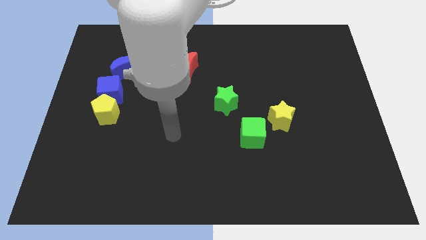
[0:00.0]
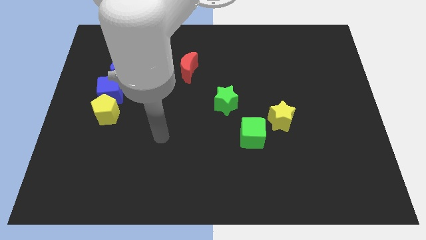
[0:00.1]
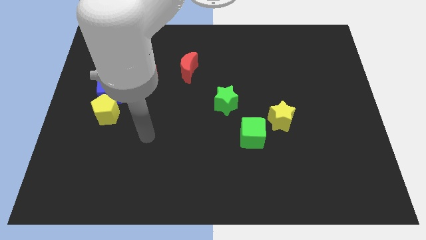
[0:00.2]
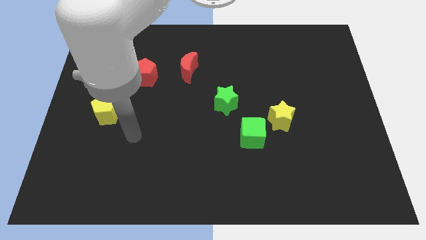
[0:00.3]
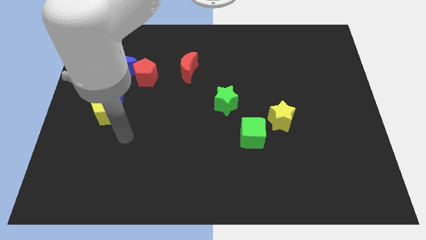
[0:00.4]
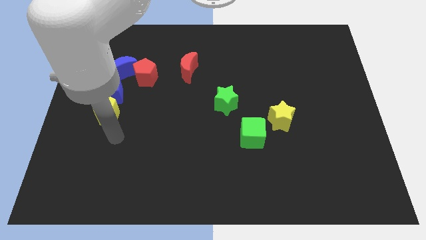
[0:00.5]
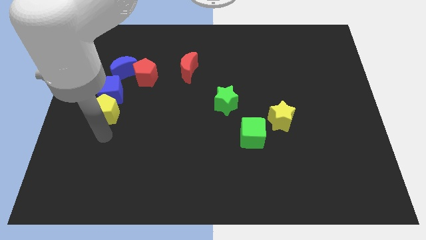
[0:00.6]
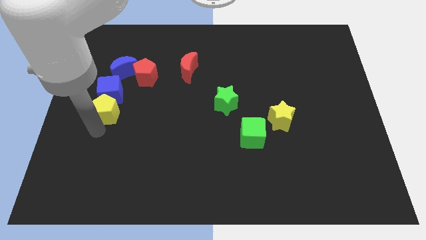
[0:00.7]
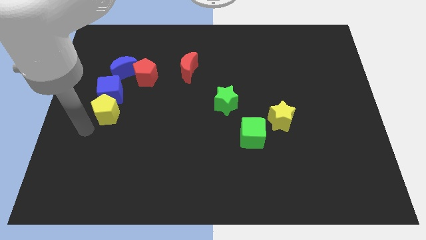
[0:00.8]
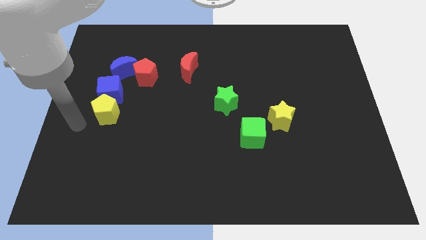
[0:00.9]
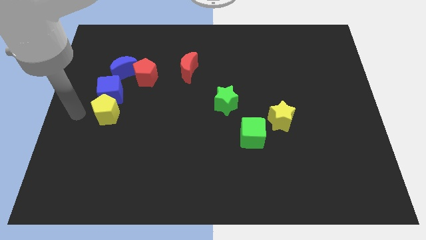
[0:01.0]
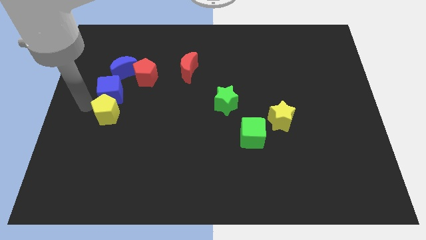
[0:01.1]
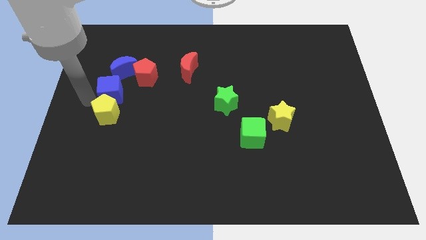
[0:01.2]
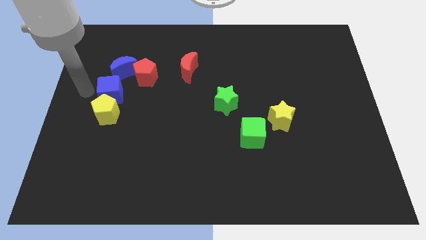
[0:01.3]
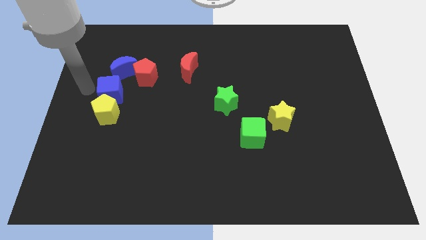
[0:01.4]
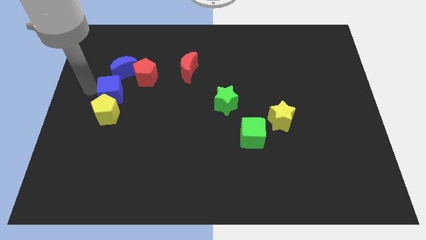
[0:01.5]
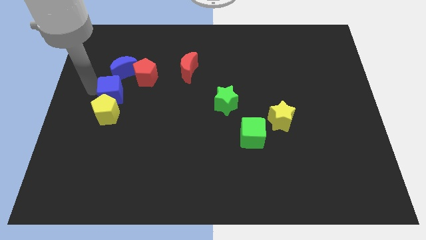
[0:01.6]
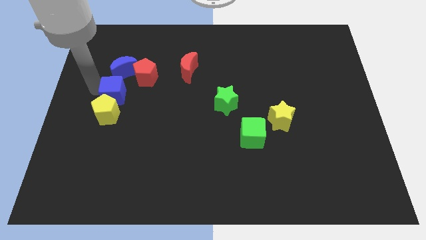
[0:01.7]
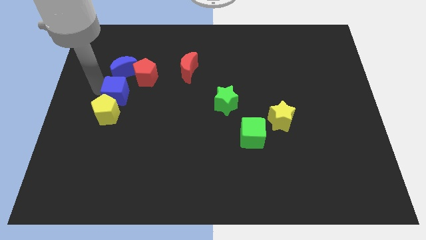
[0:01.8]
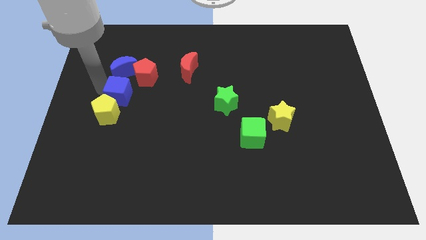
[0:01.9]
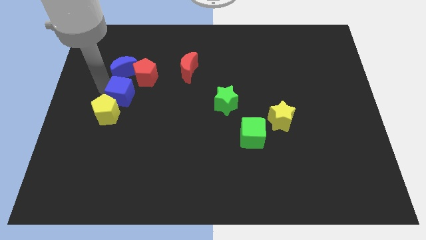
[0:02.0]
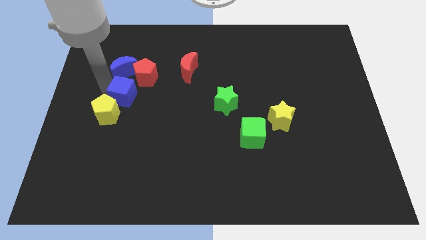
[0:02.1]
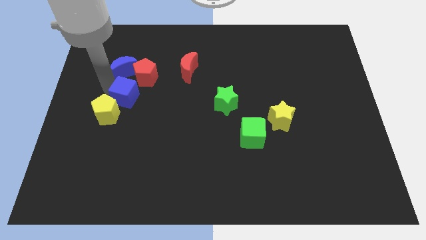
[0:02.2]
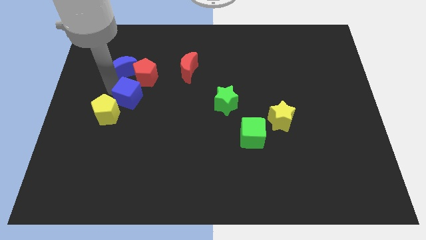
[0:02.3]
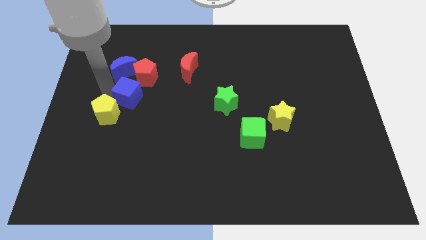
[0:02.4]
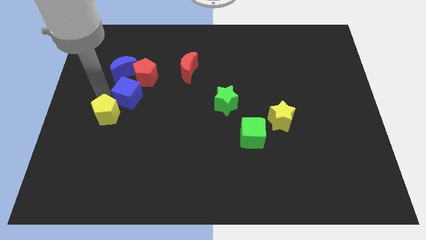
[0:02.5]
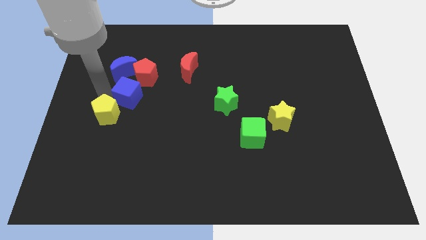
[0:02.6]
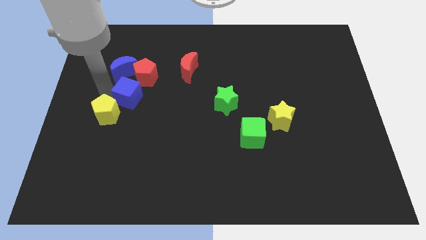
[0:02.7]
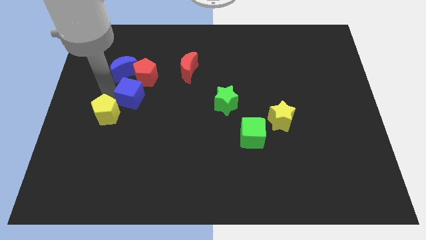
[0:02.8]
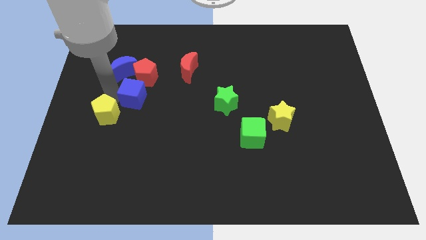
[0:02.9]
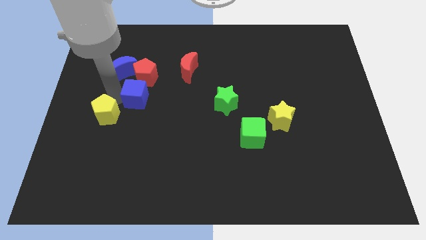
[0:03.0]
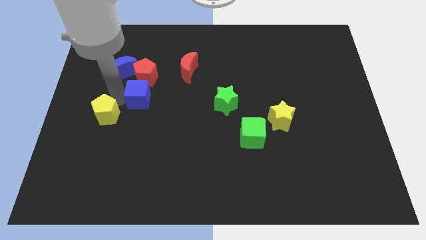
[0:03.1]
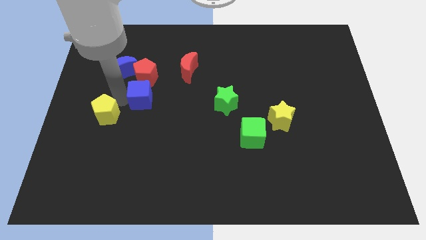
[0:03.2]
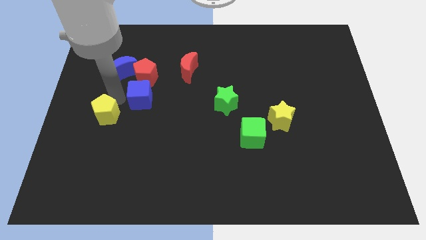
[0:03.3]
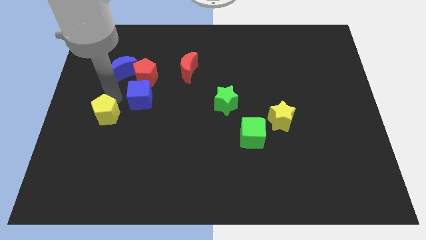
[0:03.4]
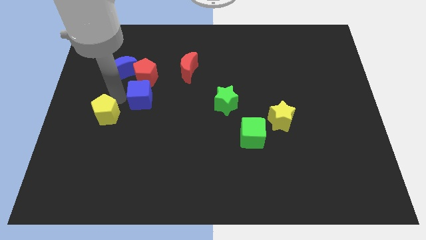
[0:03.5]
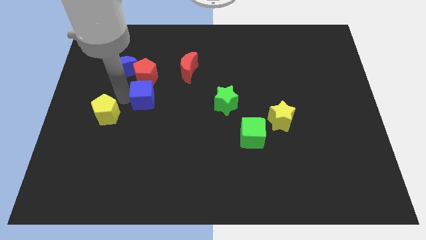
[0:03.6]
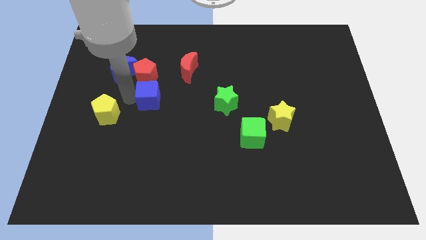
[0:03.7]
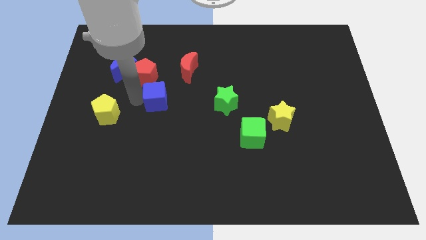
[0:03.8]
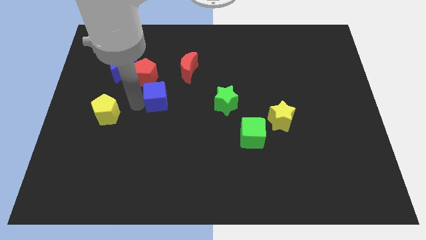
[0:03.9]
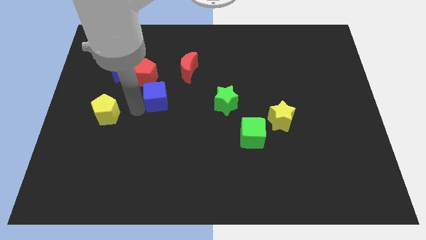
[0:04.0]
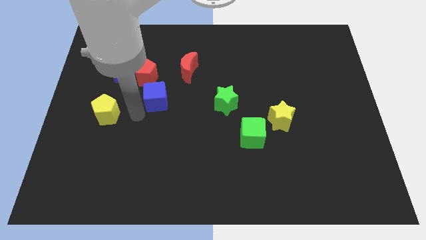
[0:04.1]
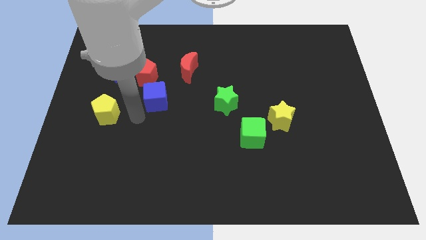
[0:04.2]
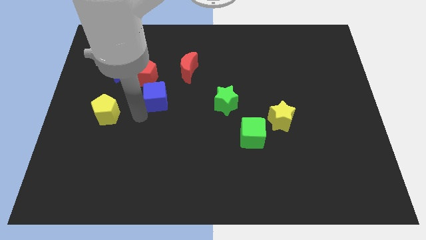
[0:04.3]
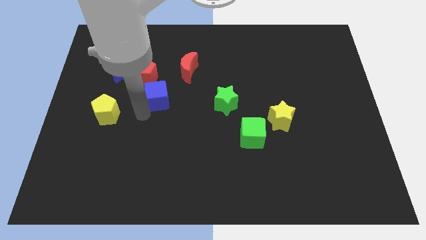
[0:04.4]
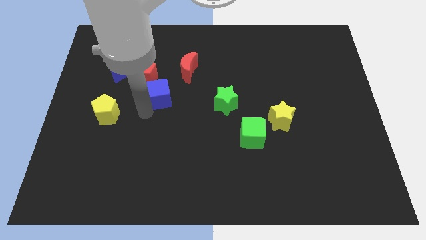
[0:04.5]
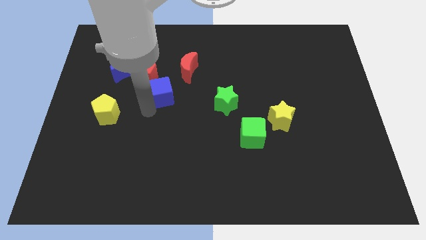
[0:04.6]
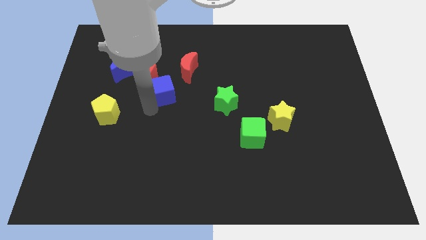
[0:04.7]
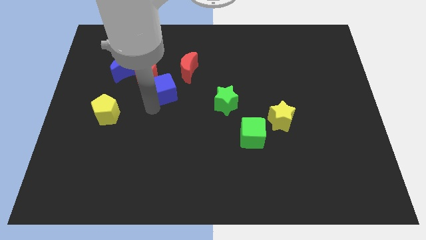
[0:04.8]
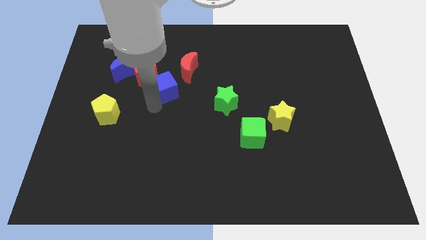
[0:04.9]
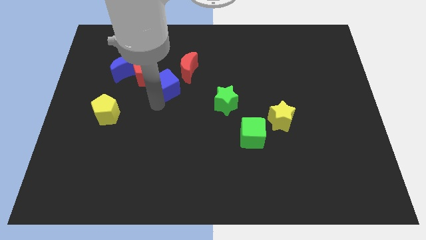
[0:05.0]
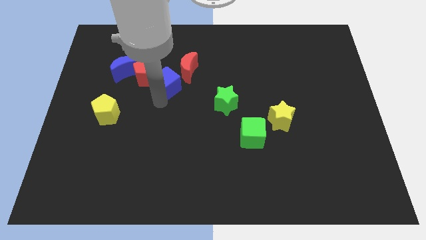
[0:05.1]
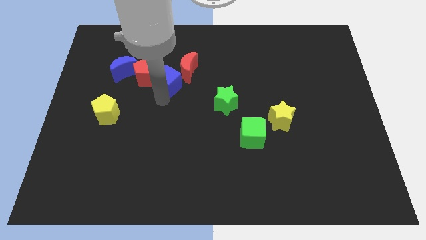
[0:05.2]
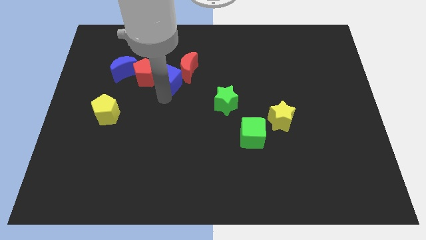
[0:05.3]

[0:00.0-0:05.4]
slide the blue cube next to the red moon

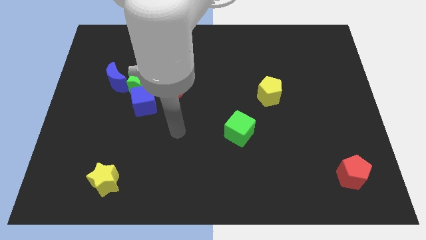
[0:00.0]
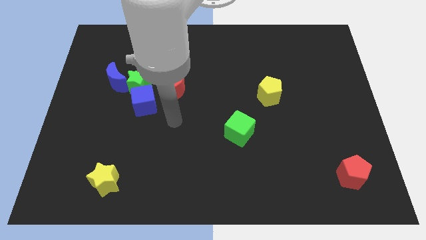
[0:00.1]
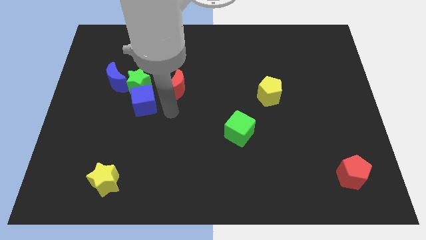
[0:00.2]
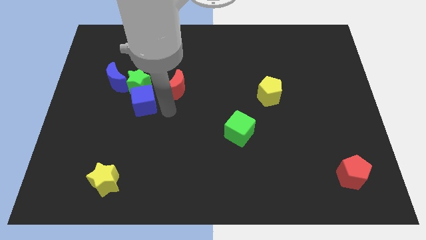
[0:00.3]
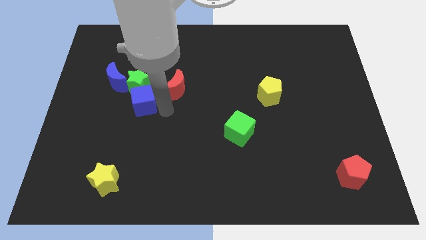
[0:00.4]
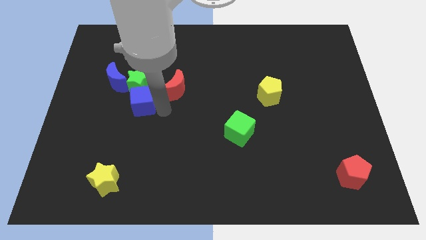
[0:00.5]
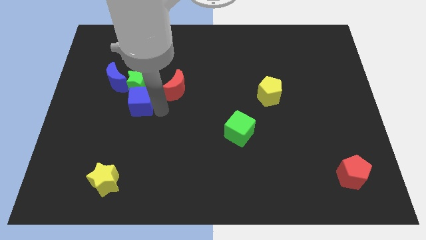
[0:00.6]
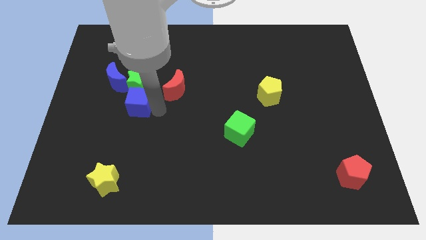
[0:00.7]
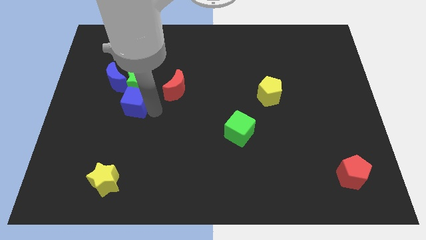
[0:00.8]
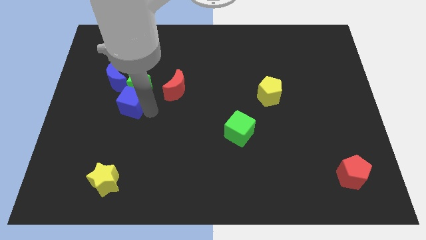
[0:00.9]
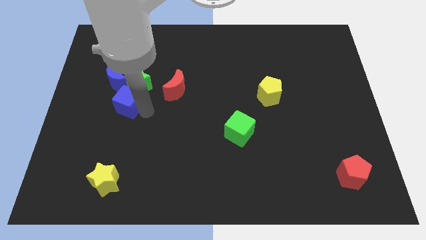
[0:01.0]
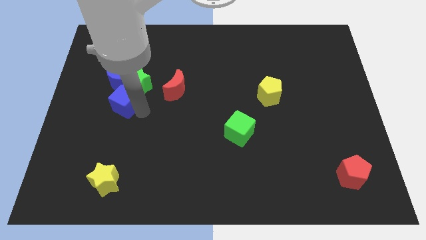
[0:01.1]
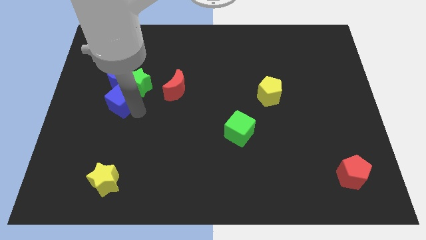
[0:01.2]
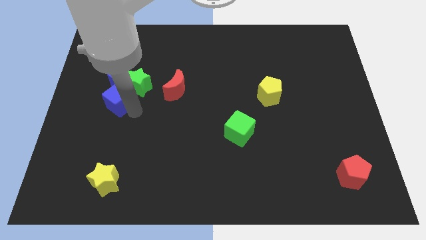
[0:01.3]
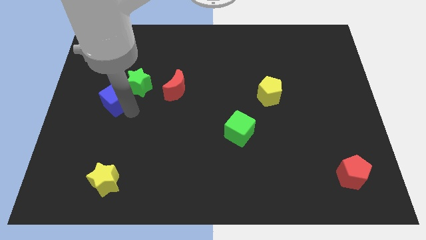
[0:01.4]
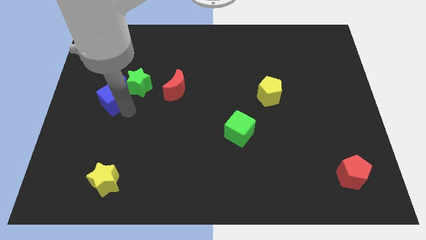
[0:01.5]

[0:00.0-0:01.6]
push the blue cube to the blue moon

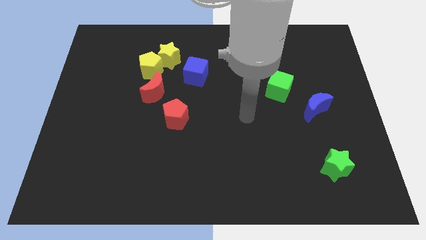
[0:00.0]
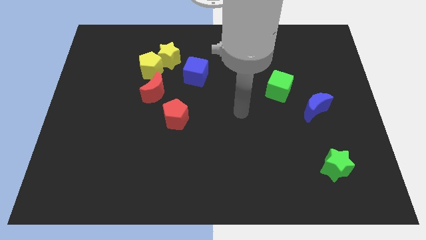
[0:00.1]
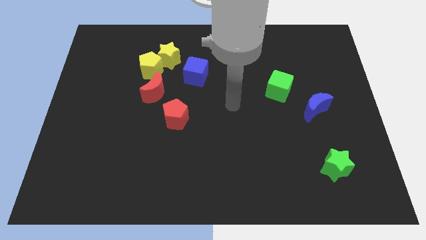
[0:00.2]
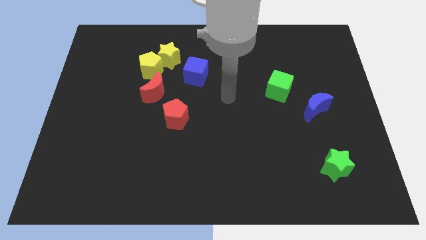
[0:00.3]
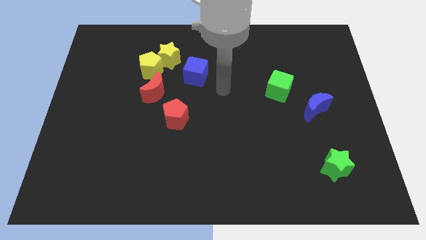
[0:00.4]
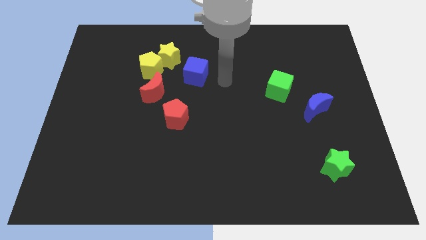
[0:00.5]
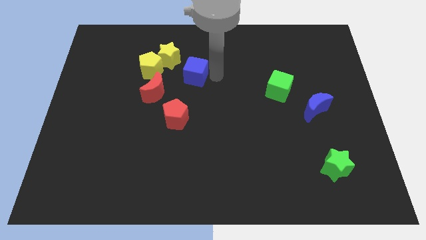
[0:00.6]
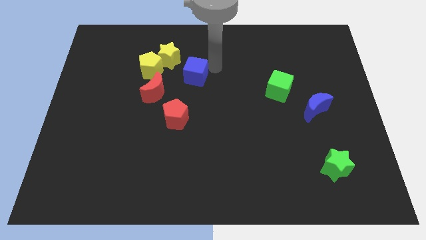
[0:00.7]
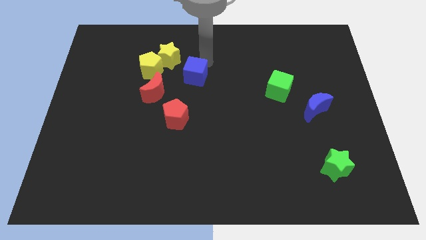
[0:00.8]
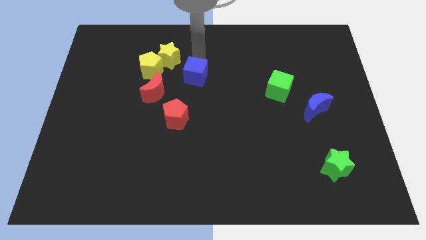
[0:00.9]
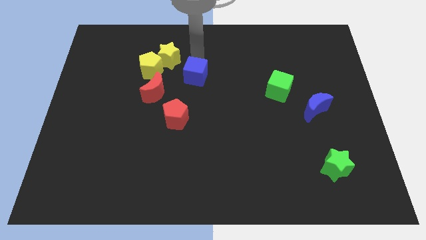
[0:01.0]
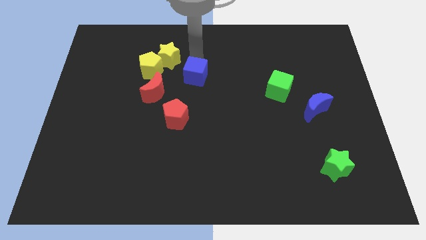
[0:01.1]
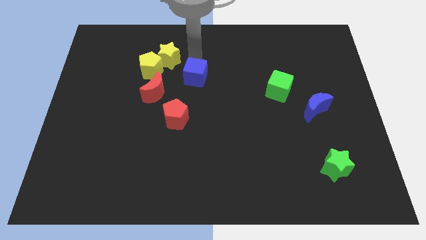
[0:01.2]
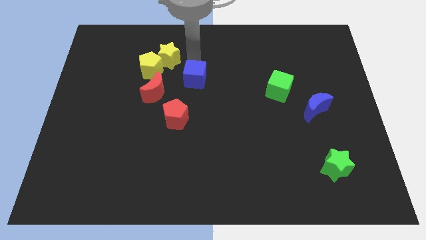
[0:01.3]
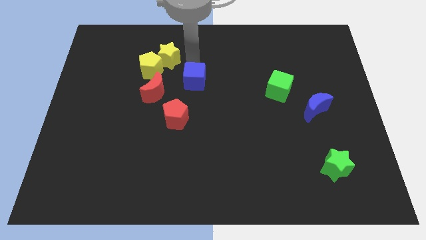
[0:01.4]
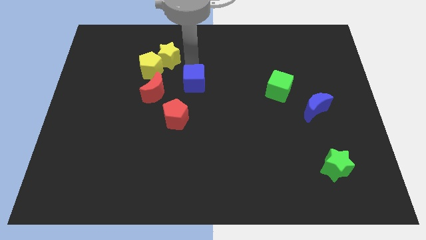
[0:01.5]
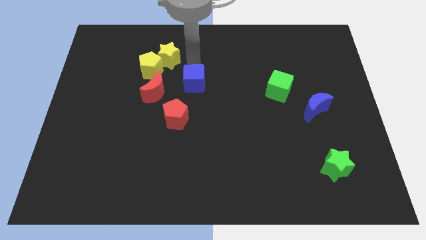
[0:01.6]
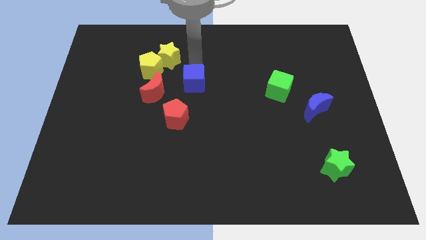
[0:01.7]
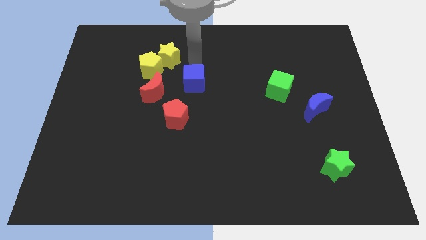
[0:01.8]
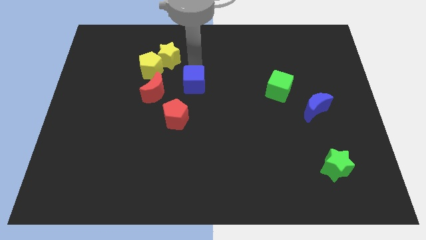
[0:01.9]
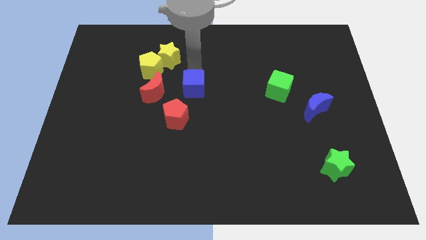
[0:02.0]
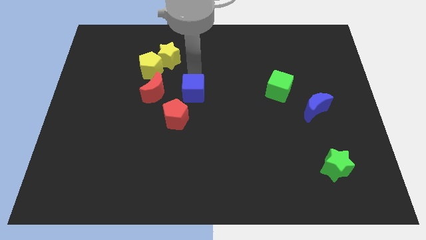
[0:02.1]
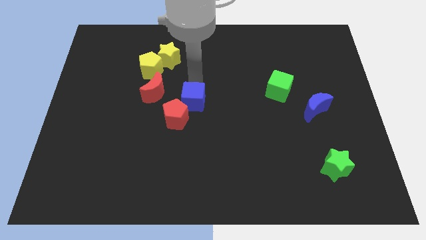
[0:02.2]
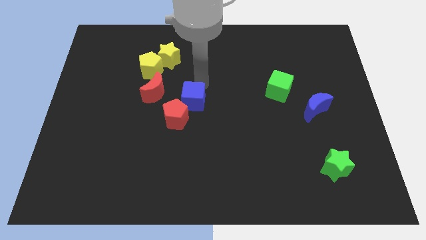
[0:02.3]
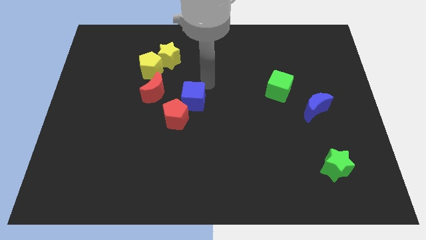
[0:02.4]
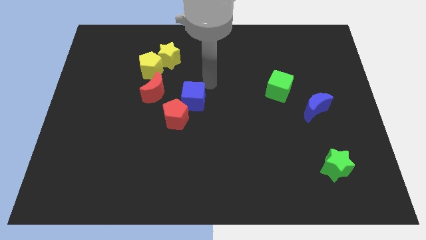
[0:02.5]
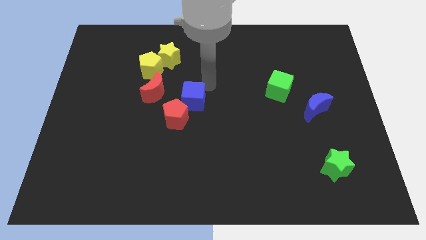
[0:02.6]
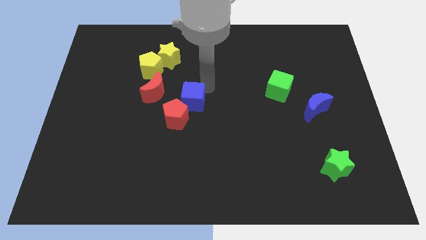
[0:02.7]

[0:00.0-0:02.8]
push the blue cube to the red pentagon
